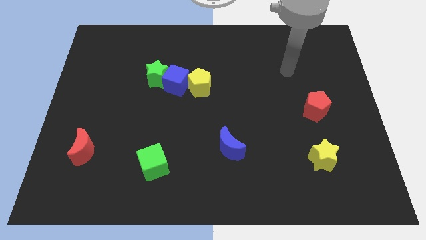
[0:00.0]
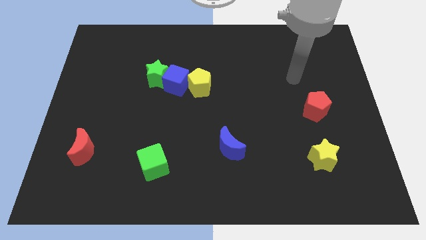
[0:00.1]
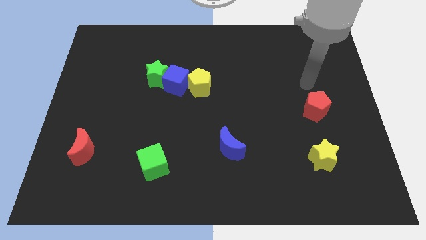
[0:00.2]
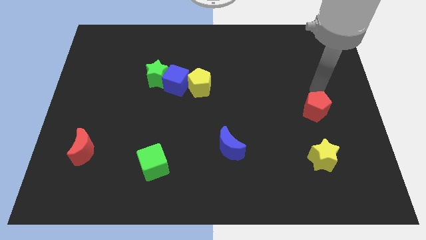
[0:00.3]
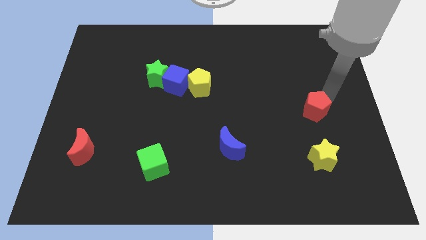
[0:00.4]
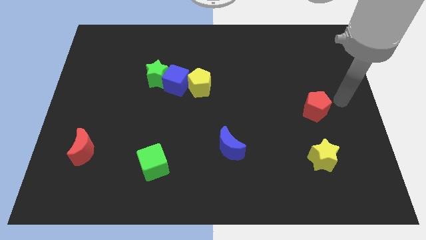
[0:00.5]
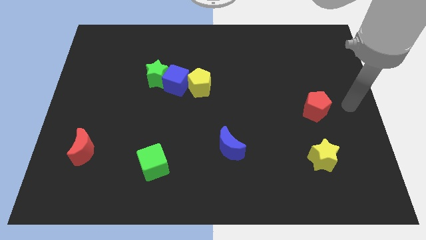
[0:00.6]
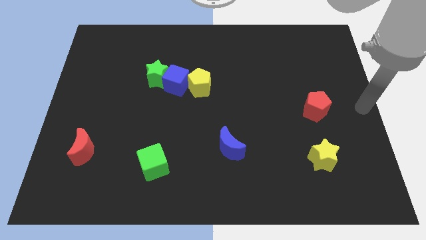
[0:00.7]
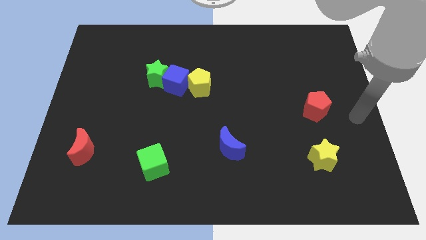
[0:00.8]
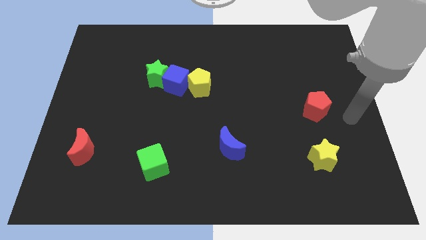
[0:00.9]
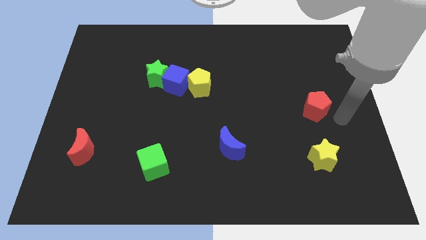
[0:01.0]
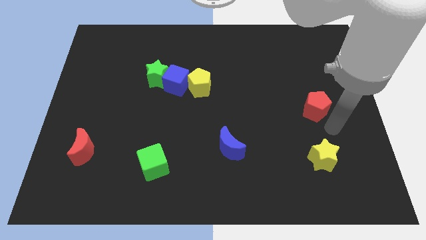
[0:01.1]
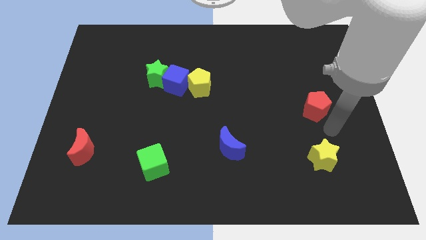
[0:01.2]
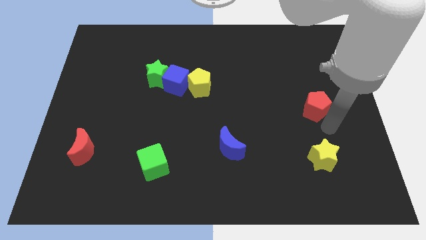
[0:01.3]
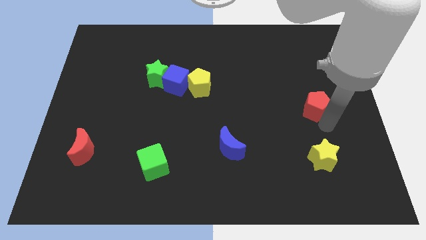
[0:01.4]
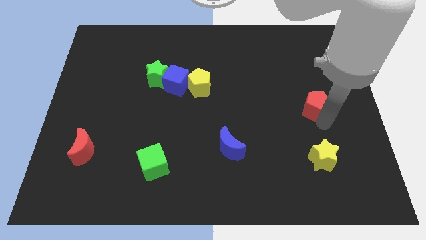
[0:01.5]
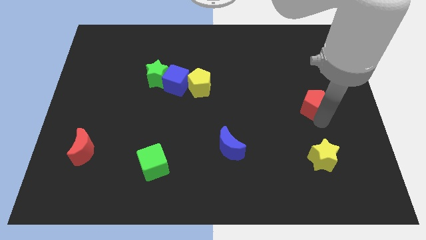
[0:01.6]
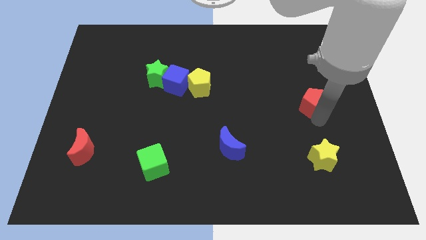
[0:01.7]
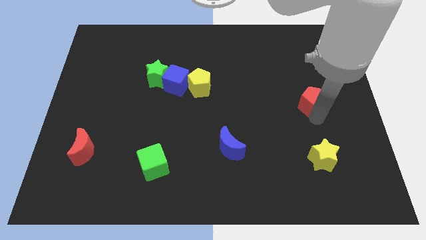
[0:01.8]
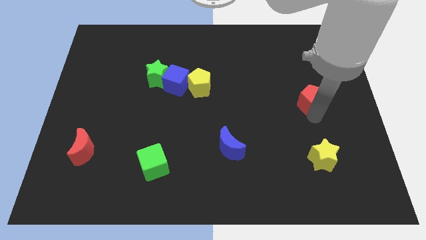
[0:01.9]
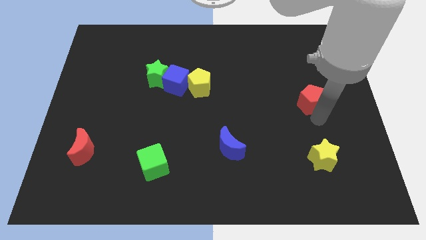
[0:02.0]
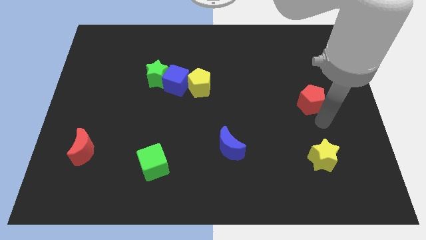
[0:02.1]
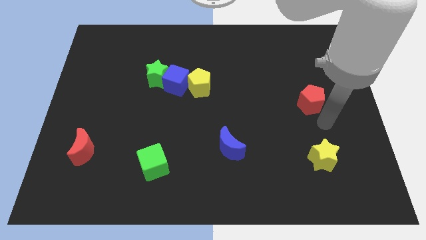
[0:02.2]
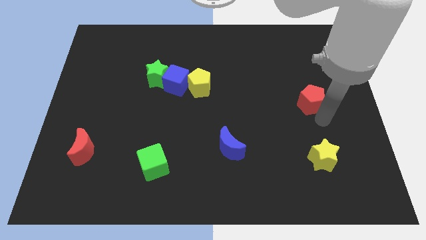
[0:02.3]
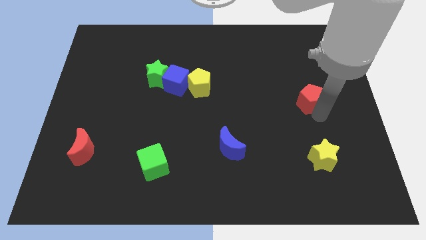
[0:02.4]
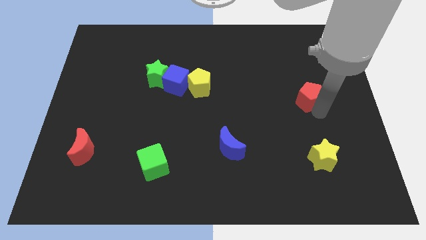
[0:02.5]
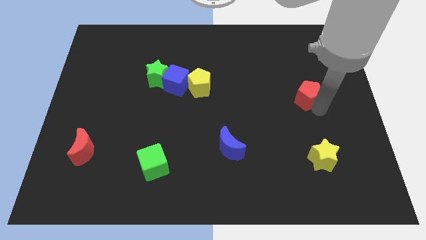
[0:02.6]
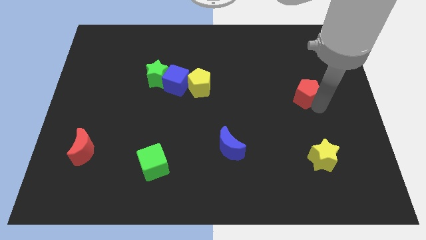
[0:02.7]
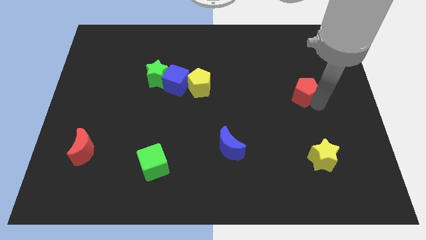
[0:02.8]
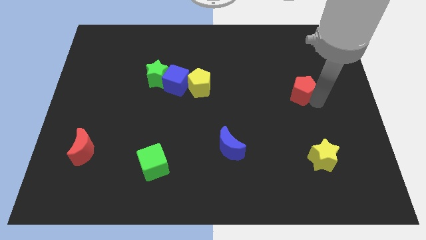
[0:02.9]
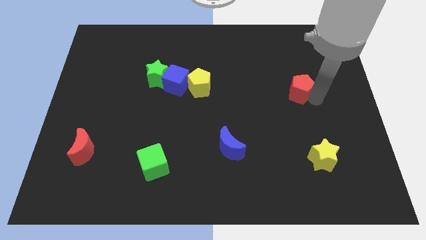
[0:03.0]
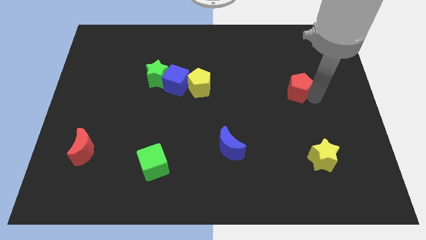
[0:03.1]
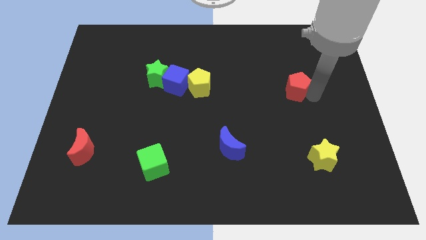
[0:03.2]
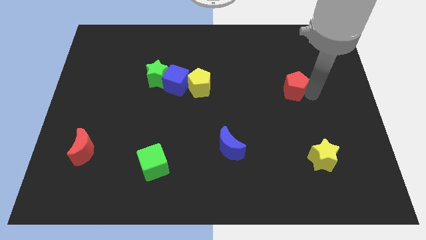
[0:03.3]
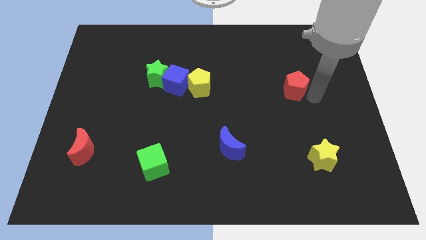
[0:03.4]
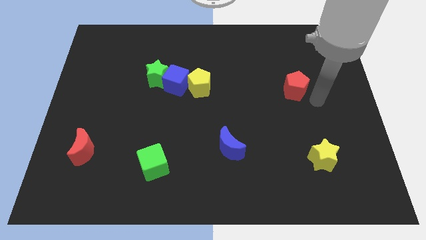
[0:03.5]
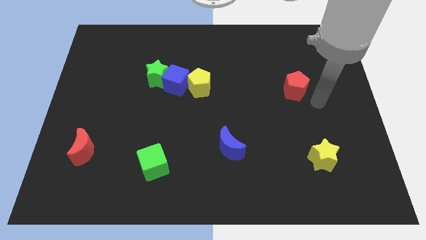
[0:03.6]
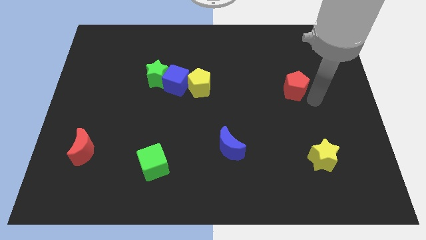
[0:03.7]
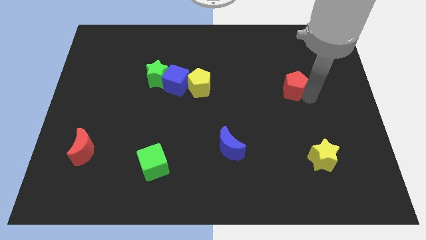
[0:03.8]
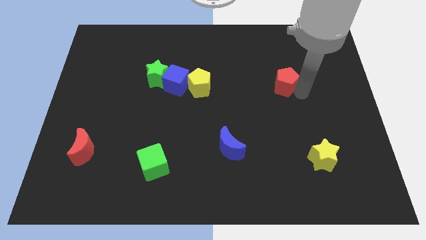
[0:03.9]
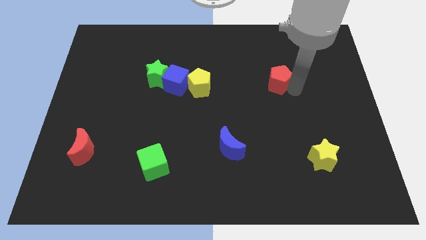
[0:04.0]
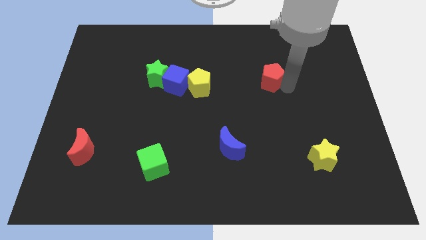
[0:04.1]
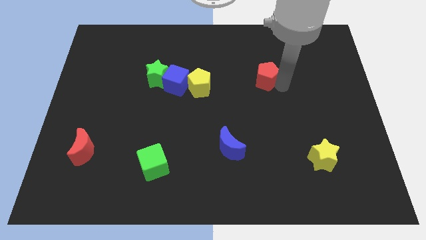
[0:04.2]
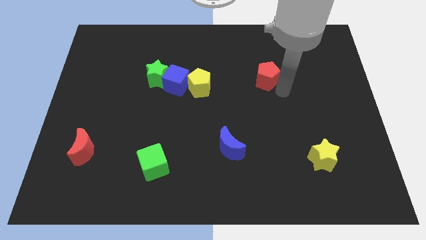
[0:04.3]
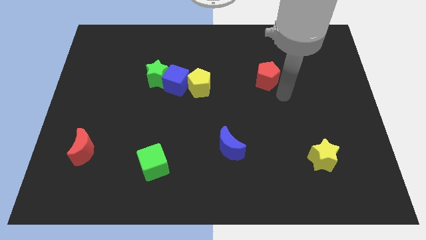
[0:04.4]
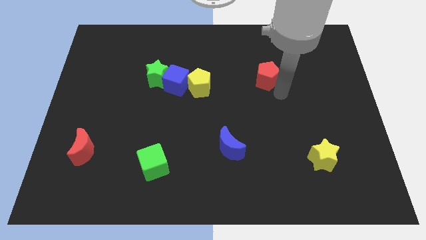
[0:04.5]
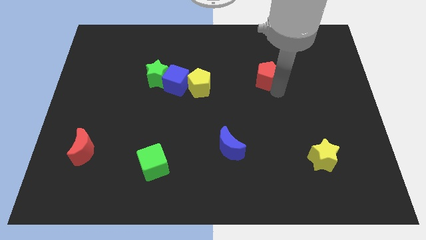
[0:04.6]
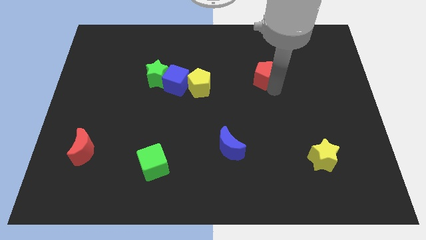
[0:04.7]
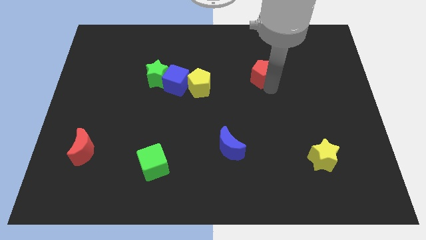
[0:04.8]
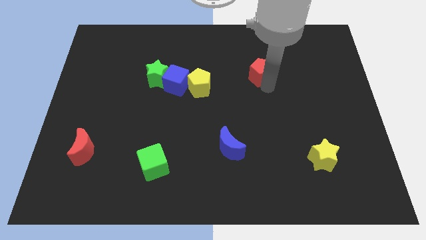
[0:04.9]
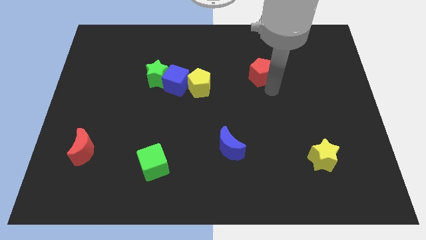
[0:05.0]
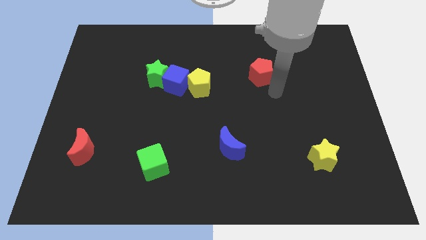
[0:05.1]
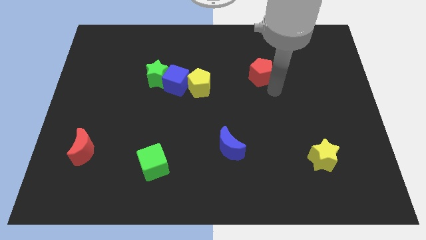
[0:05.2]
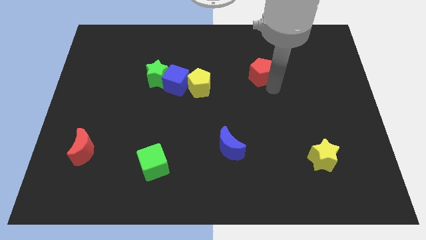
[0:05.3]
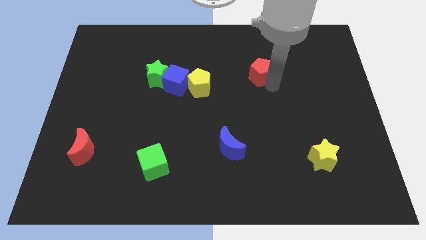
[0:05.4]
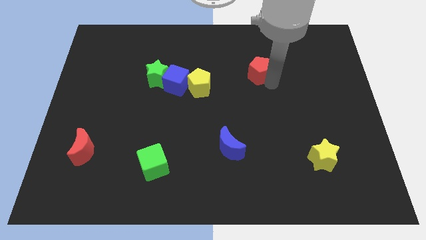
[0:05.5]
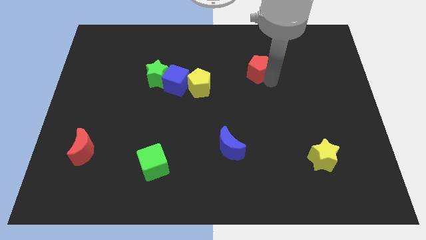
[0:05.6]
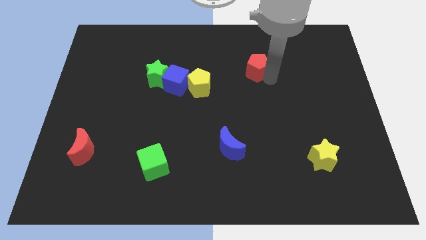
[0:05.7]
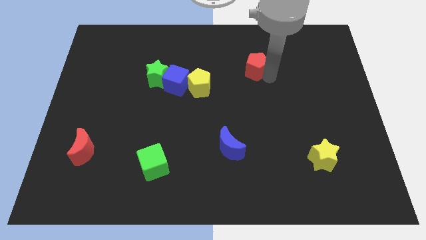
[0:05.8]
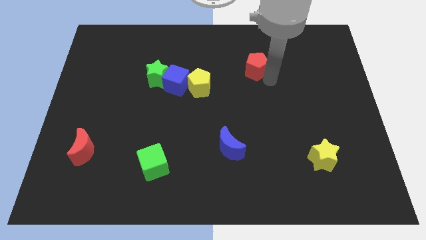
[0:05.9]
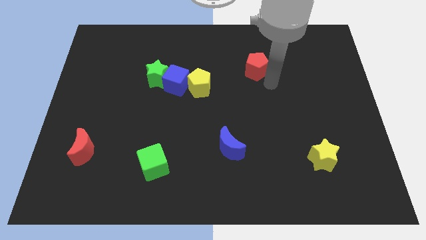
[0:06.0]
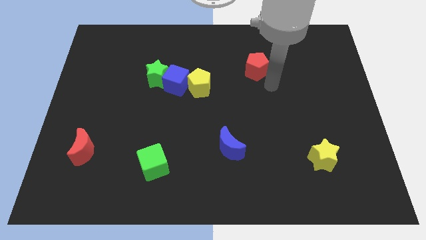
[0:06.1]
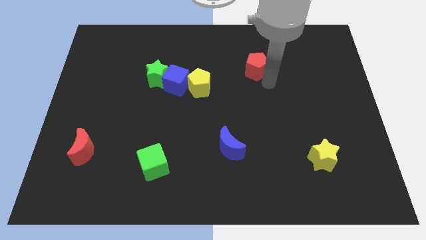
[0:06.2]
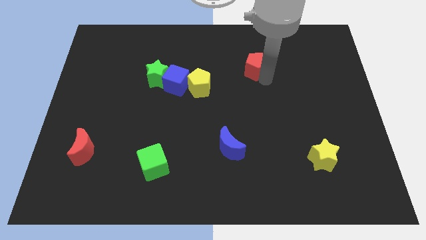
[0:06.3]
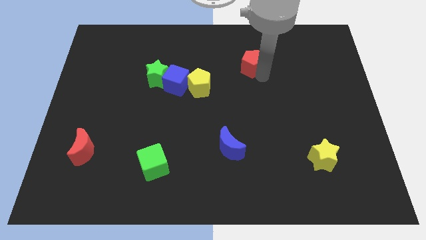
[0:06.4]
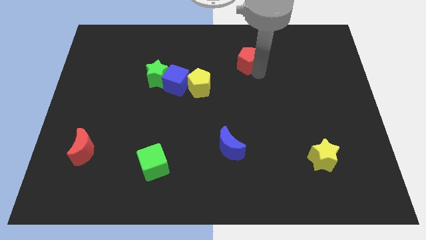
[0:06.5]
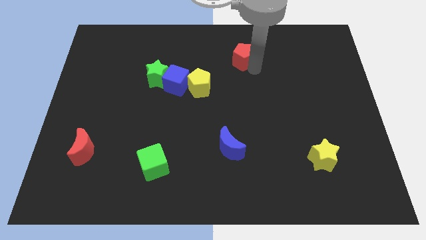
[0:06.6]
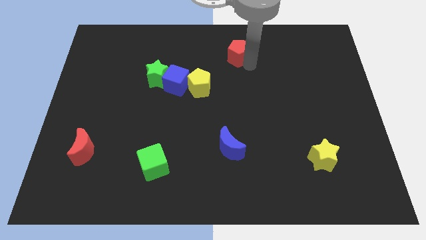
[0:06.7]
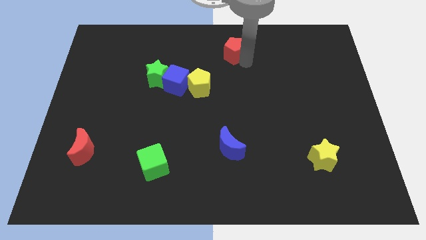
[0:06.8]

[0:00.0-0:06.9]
push the red pentagon to the towards your base
